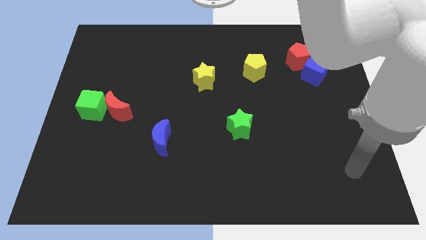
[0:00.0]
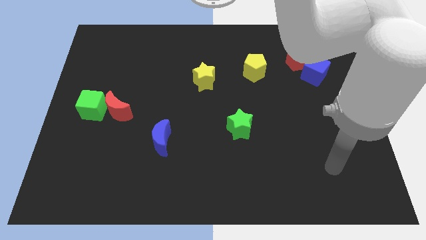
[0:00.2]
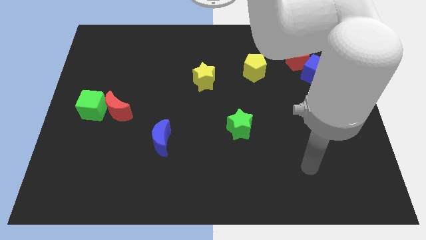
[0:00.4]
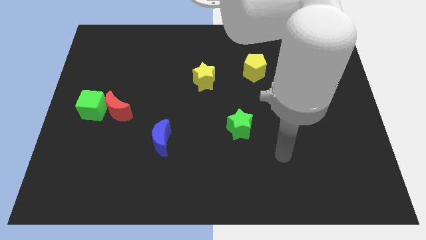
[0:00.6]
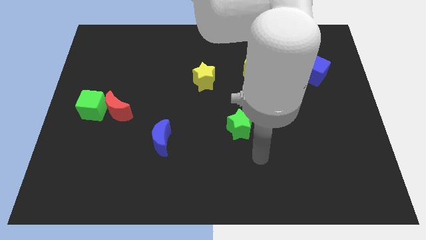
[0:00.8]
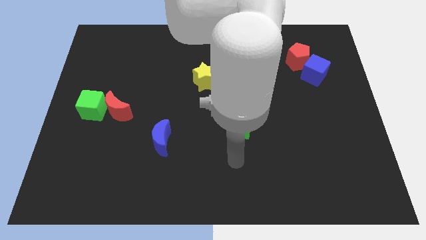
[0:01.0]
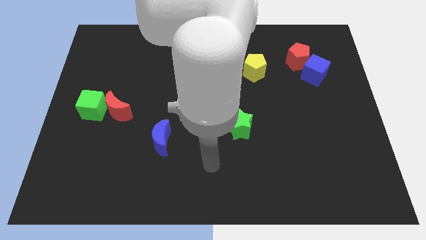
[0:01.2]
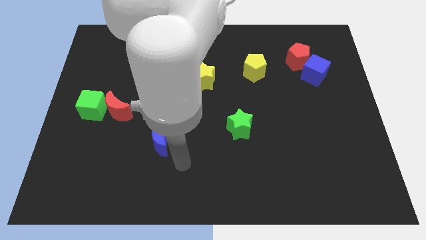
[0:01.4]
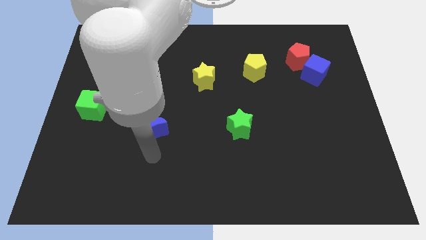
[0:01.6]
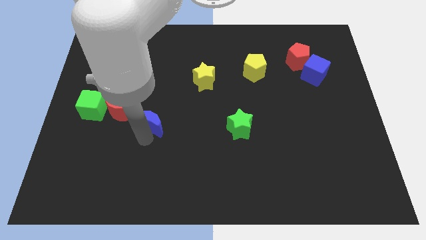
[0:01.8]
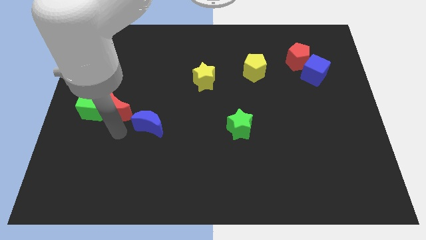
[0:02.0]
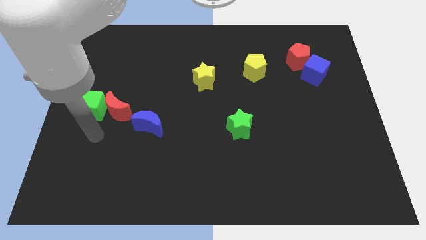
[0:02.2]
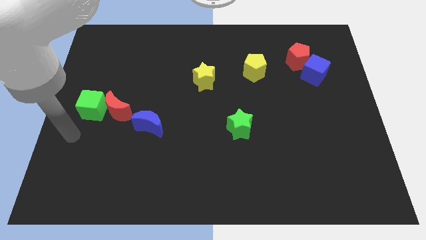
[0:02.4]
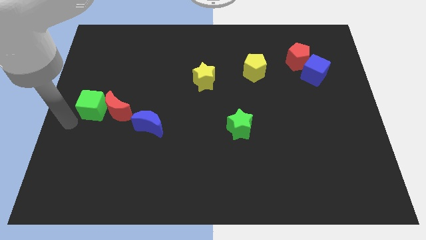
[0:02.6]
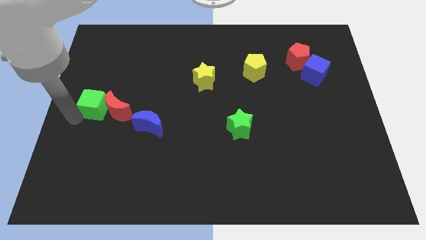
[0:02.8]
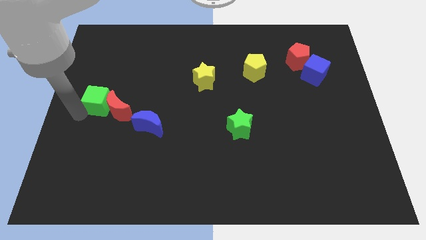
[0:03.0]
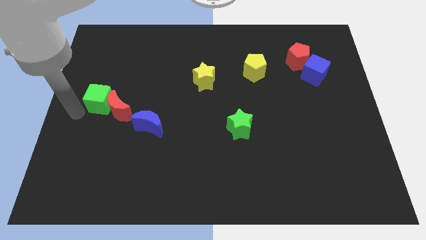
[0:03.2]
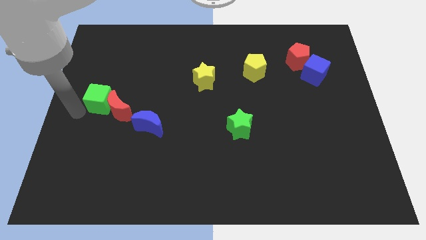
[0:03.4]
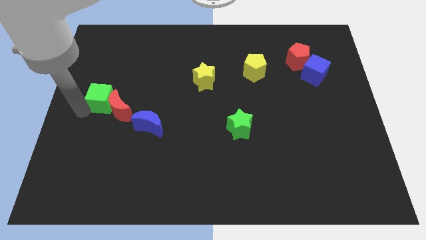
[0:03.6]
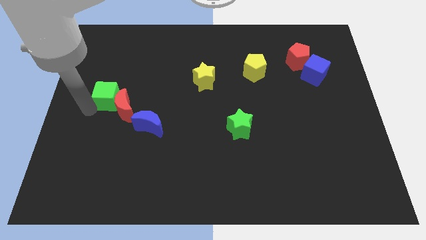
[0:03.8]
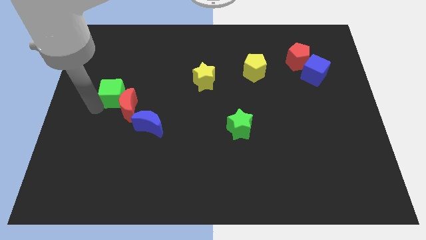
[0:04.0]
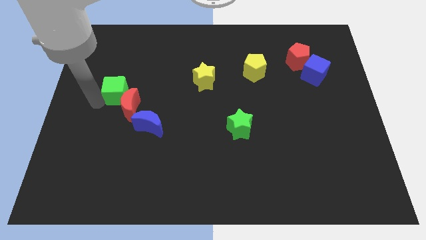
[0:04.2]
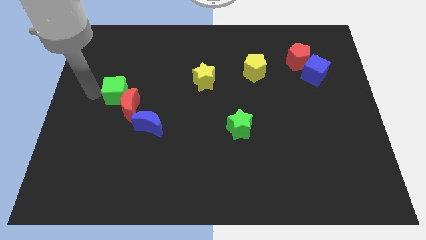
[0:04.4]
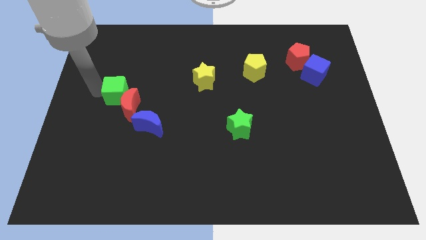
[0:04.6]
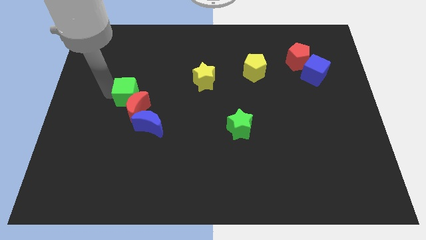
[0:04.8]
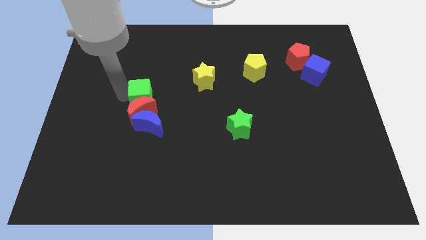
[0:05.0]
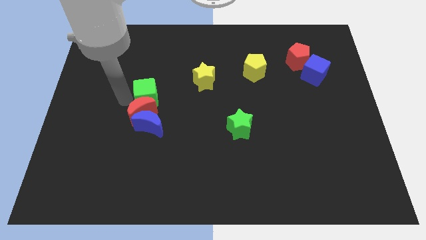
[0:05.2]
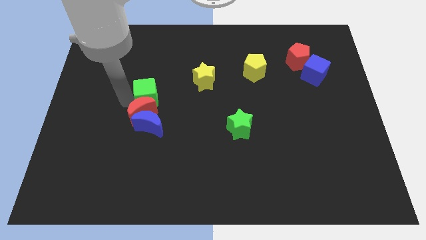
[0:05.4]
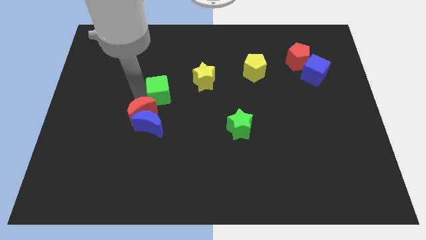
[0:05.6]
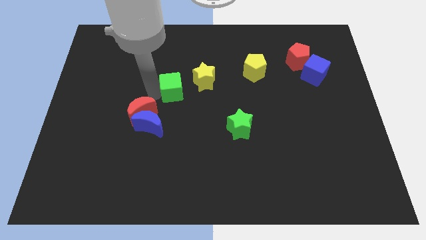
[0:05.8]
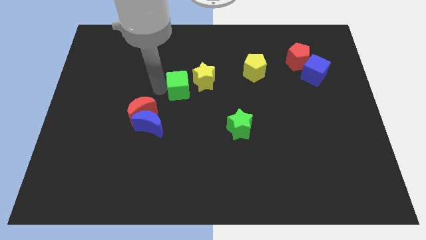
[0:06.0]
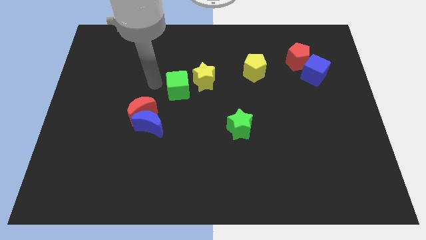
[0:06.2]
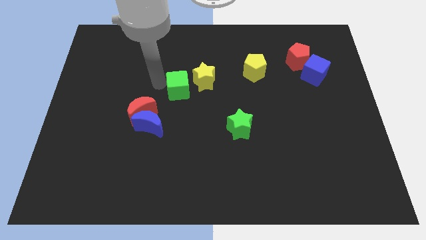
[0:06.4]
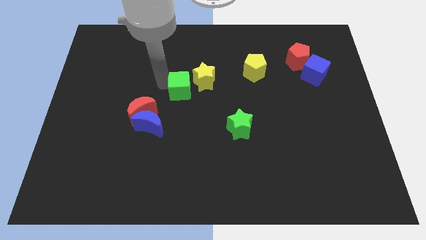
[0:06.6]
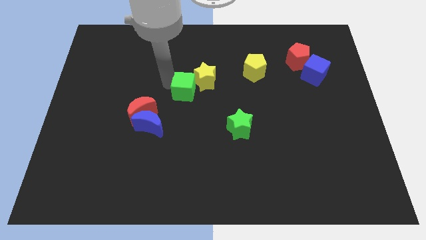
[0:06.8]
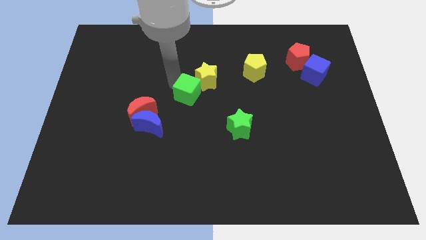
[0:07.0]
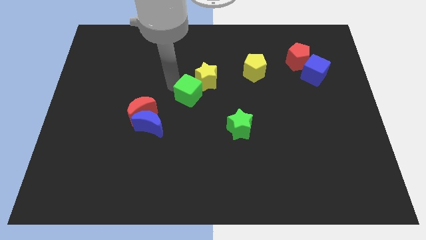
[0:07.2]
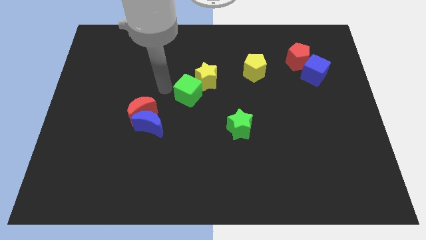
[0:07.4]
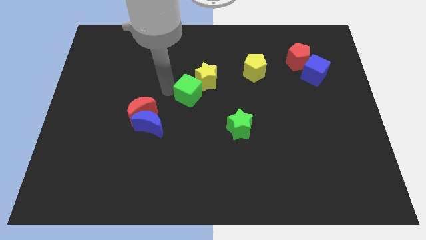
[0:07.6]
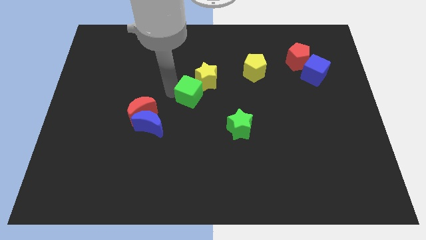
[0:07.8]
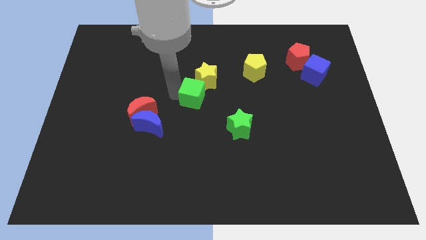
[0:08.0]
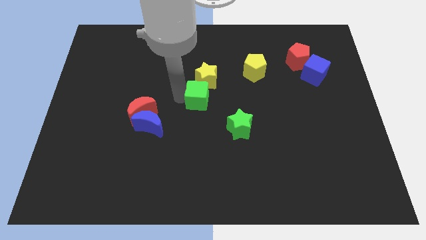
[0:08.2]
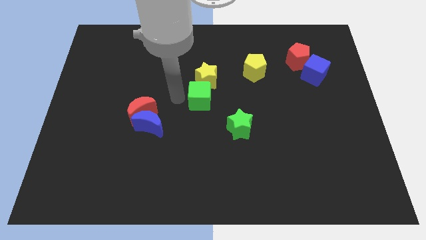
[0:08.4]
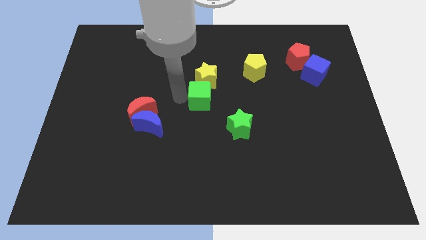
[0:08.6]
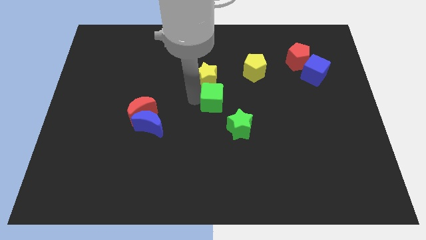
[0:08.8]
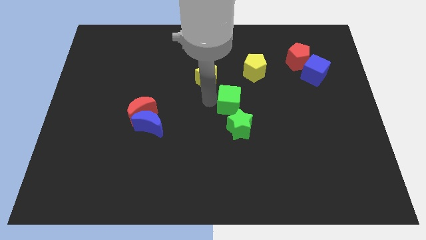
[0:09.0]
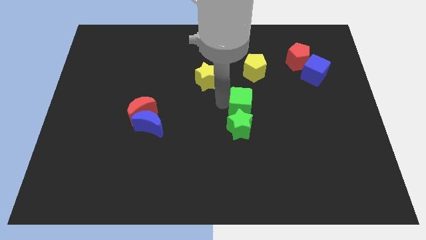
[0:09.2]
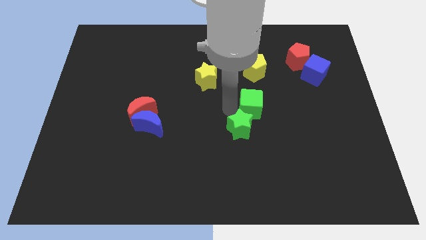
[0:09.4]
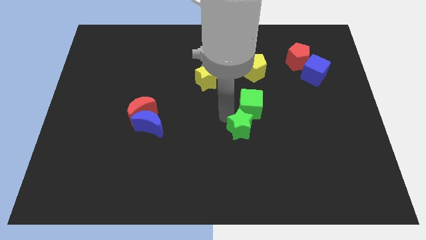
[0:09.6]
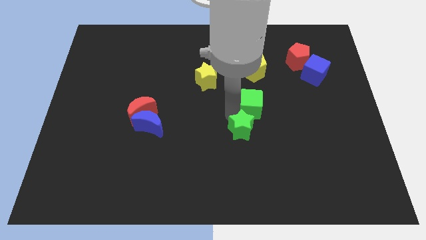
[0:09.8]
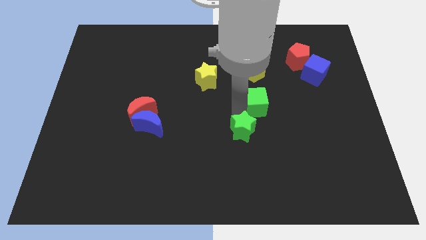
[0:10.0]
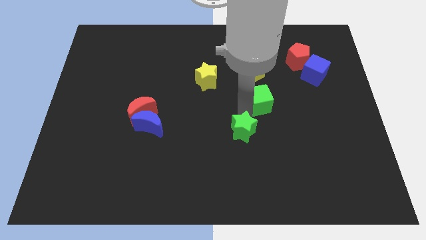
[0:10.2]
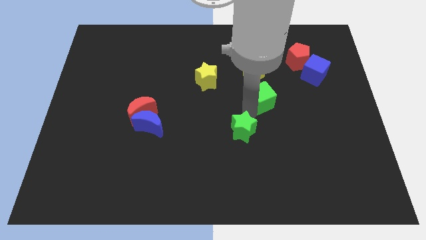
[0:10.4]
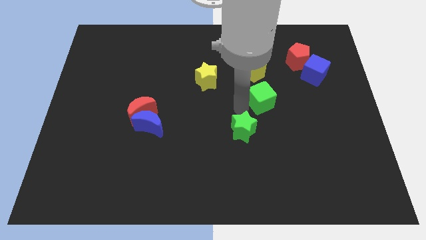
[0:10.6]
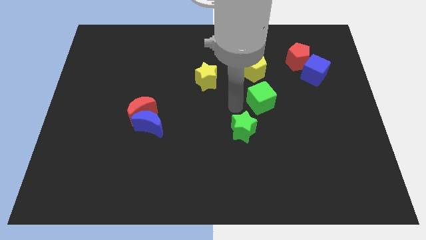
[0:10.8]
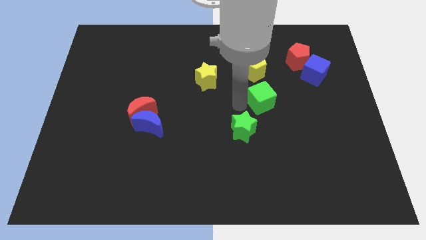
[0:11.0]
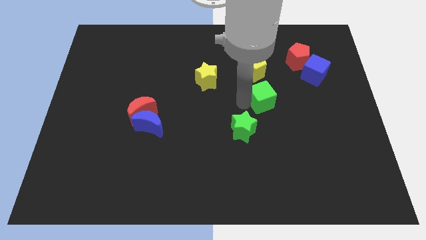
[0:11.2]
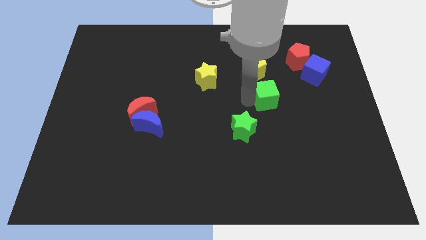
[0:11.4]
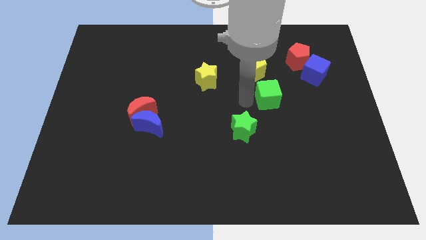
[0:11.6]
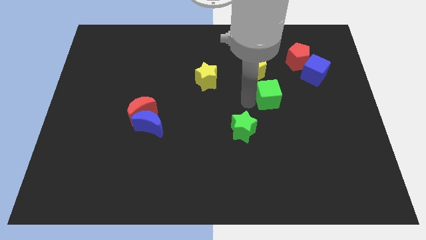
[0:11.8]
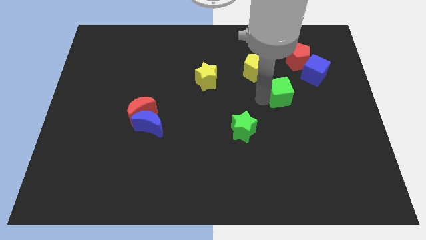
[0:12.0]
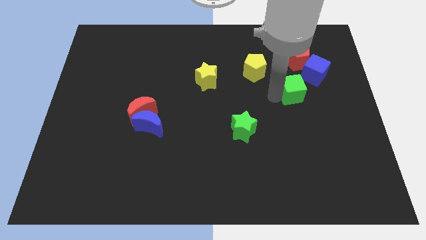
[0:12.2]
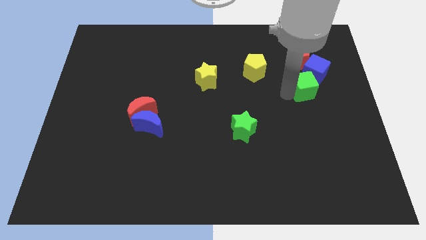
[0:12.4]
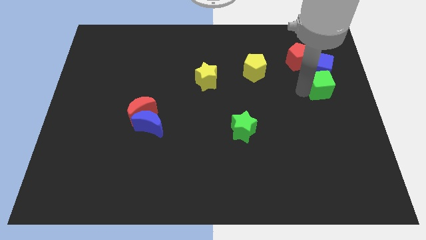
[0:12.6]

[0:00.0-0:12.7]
put the green cube to the bottom right of the red pentagon

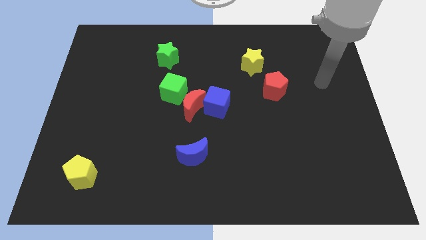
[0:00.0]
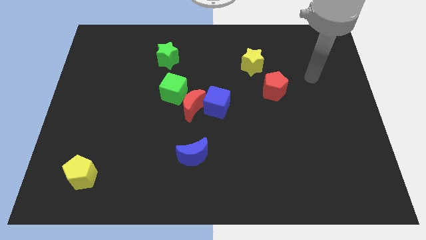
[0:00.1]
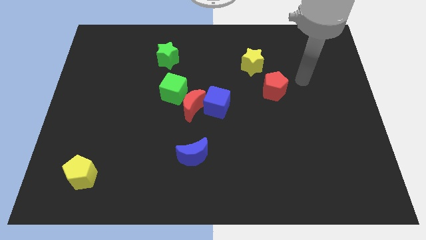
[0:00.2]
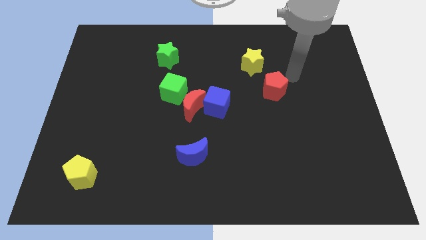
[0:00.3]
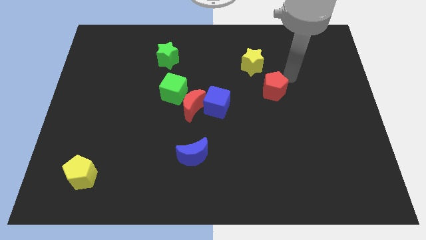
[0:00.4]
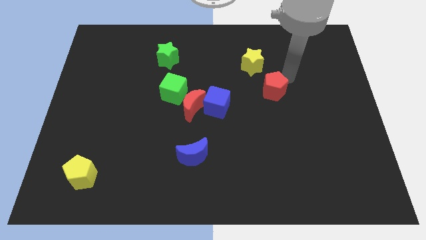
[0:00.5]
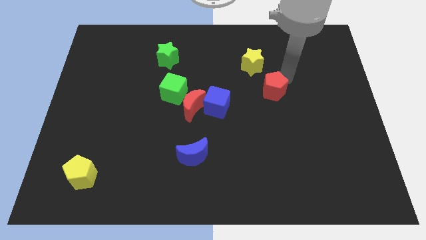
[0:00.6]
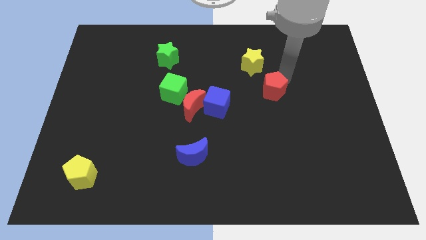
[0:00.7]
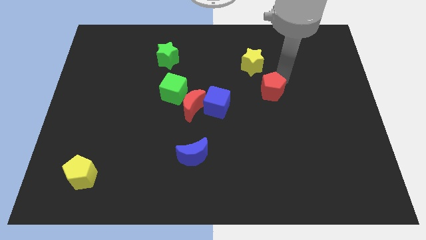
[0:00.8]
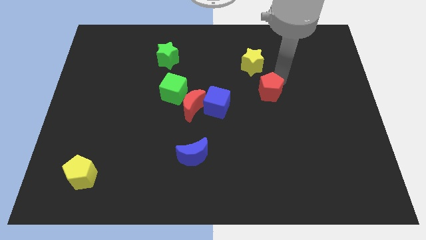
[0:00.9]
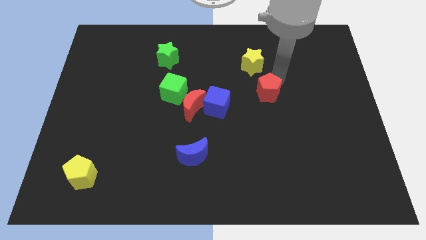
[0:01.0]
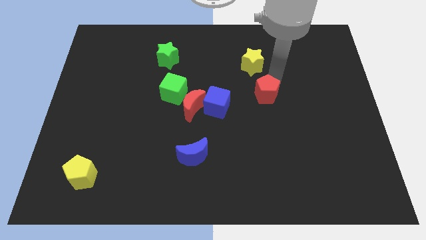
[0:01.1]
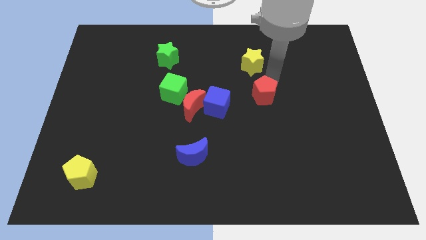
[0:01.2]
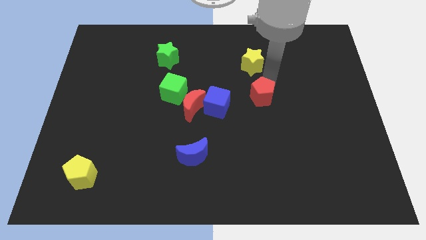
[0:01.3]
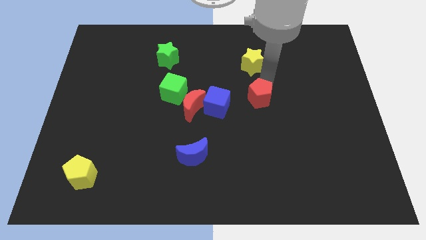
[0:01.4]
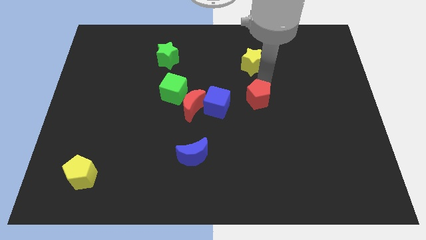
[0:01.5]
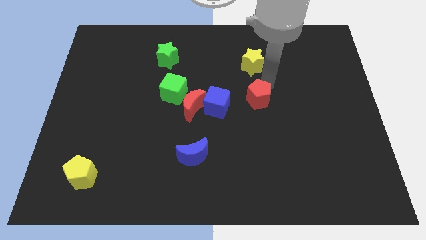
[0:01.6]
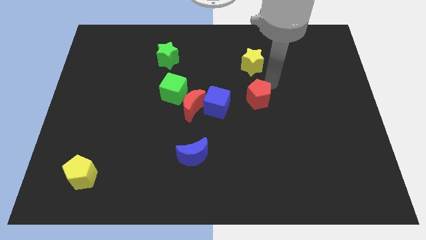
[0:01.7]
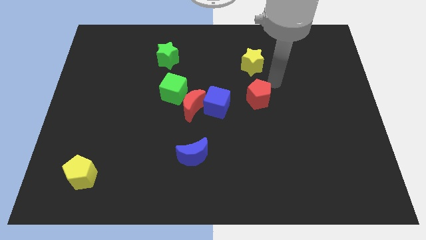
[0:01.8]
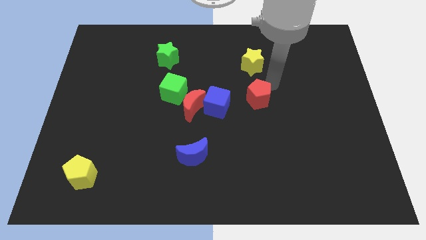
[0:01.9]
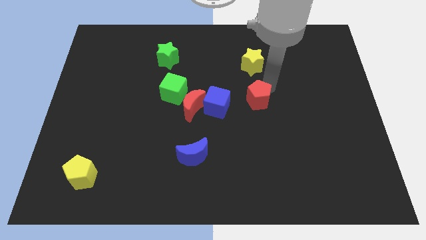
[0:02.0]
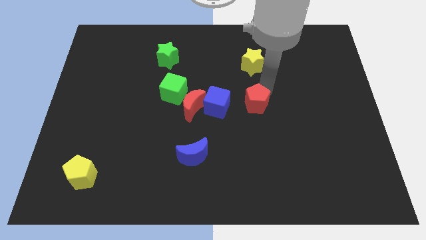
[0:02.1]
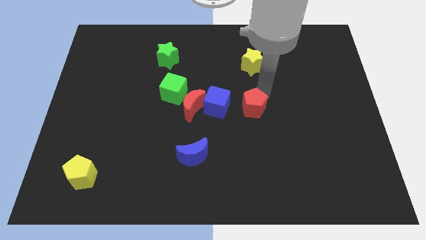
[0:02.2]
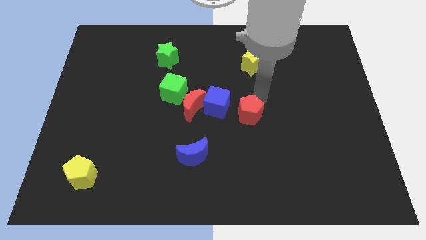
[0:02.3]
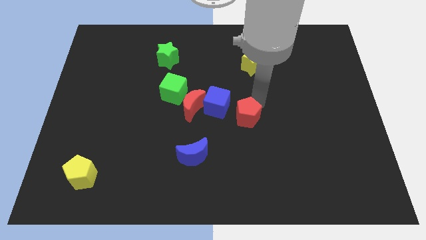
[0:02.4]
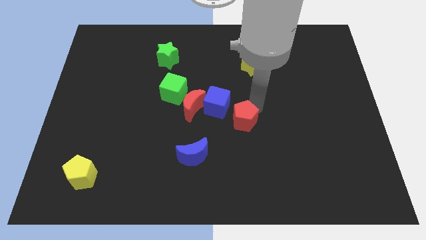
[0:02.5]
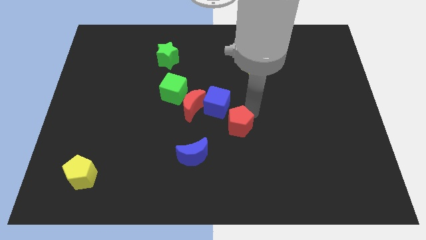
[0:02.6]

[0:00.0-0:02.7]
push the red pentagon to the bottom of the blue cube
